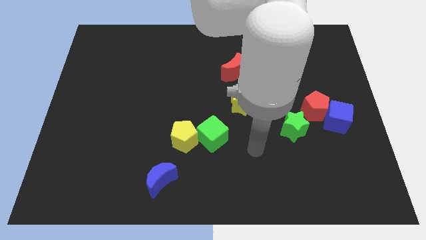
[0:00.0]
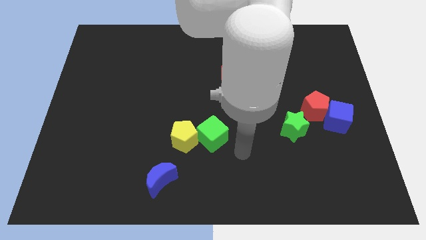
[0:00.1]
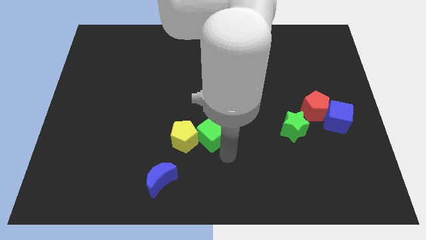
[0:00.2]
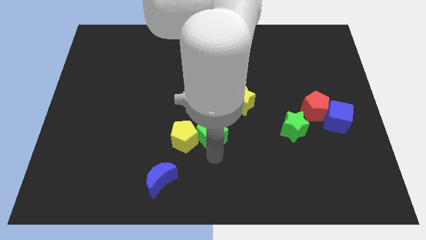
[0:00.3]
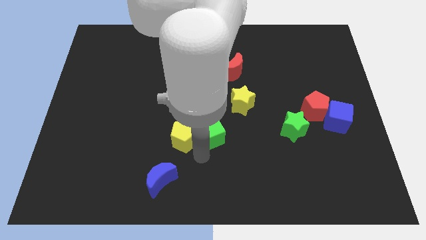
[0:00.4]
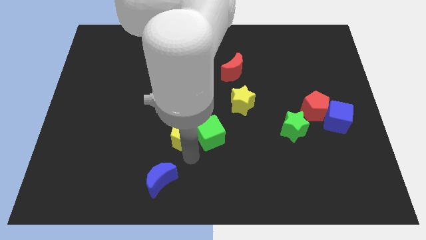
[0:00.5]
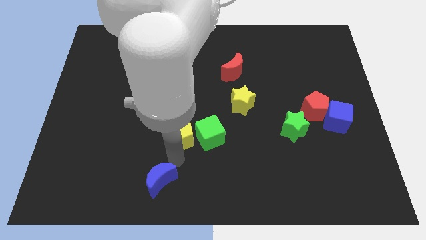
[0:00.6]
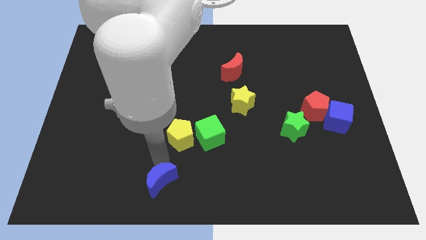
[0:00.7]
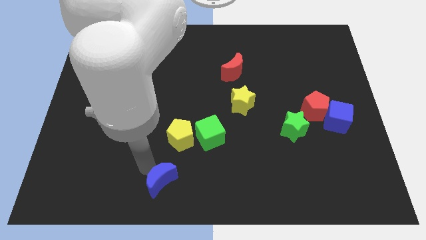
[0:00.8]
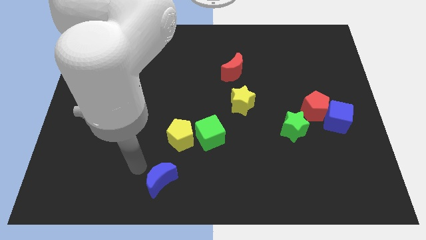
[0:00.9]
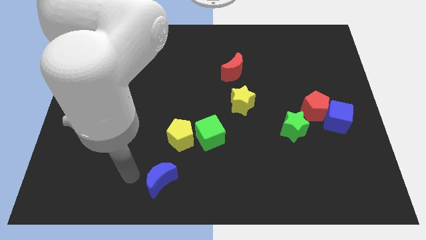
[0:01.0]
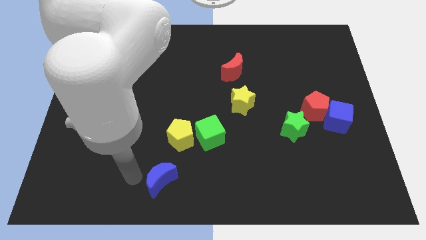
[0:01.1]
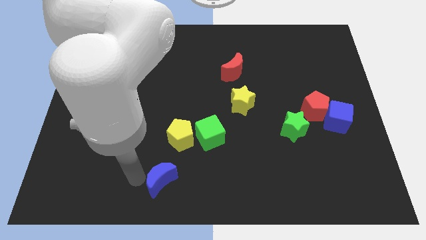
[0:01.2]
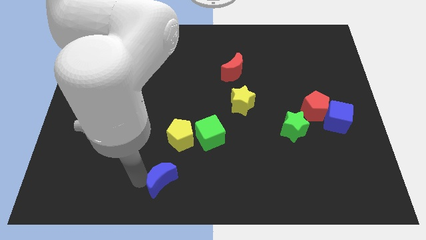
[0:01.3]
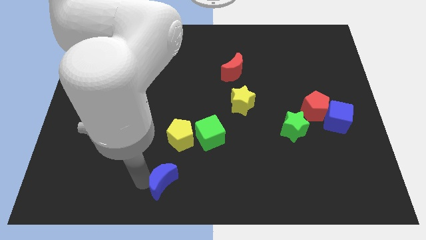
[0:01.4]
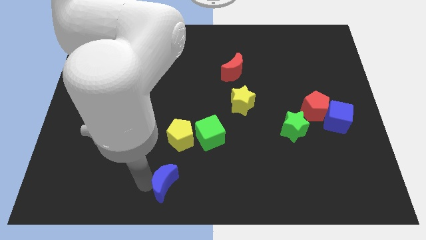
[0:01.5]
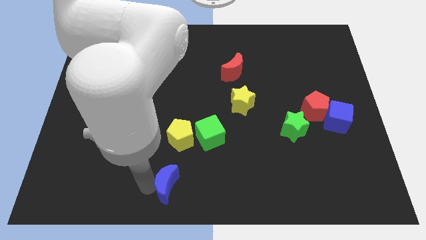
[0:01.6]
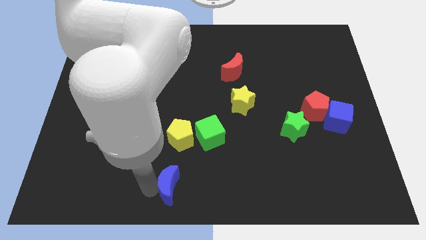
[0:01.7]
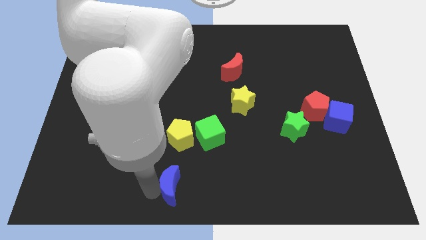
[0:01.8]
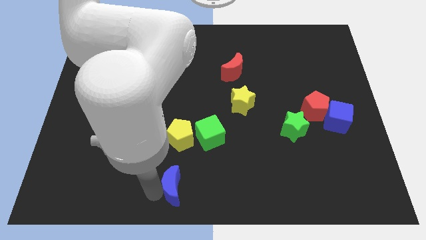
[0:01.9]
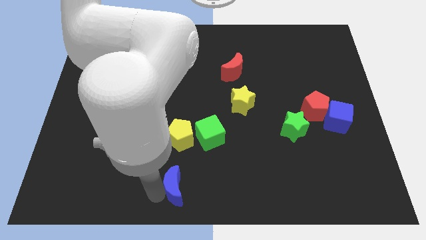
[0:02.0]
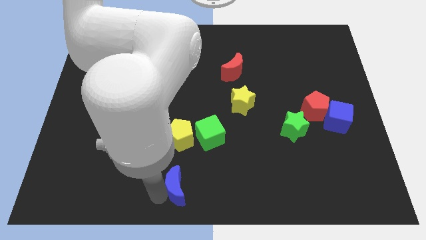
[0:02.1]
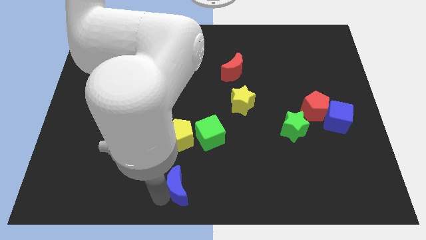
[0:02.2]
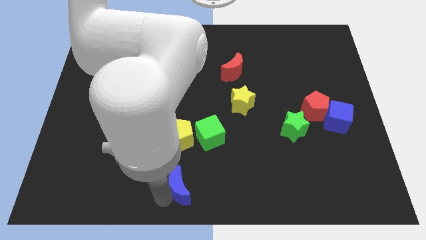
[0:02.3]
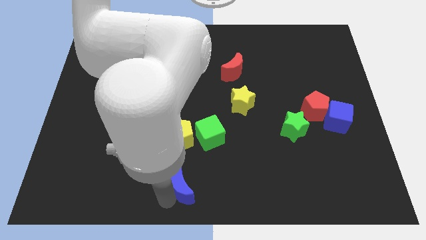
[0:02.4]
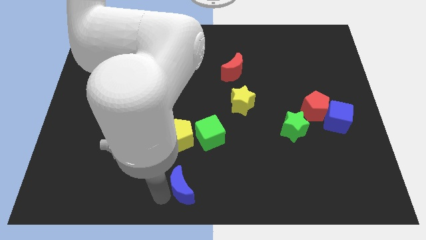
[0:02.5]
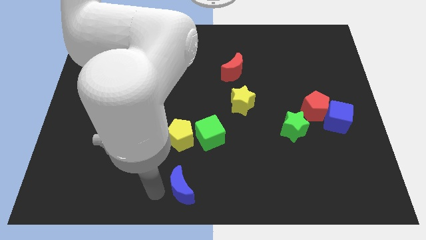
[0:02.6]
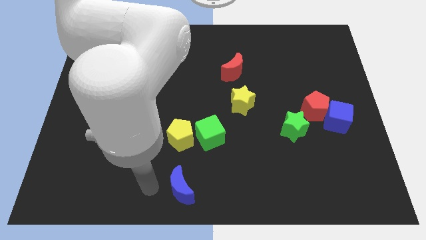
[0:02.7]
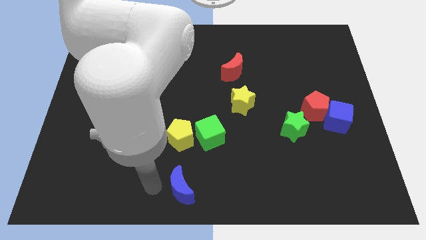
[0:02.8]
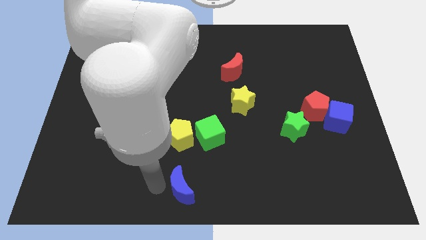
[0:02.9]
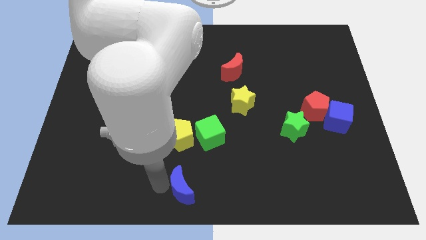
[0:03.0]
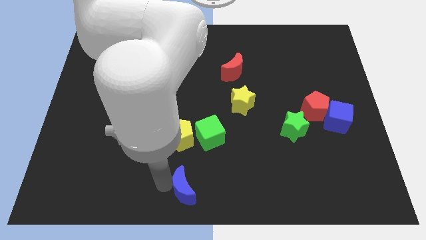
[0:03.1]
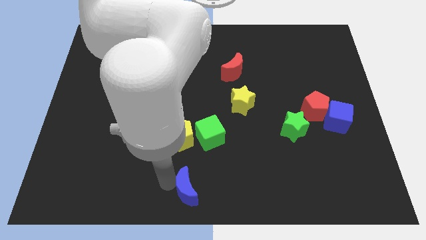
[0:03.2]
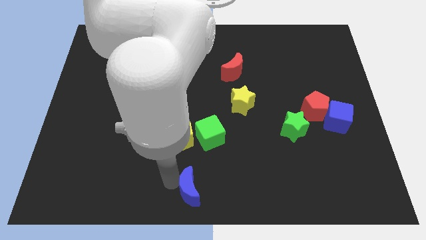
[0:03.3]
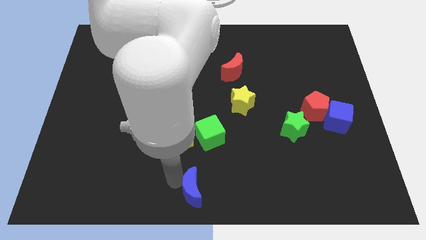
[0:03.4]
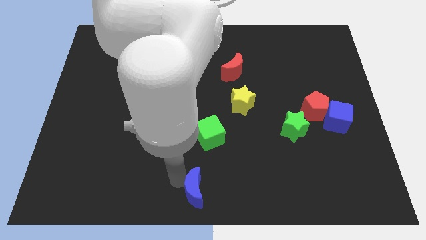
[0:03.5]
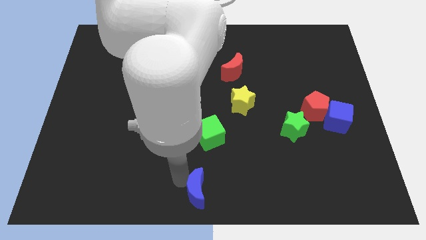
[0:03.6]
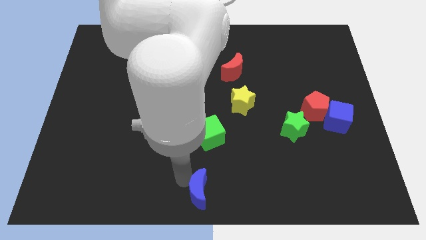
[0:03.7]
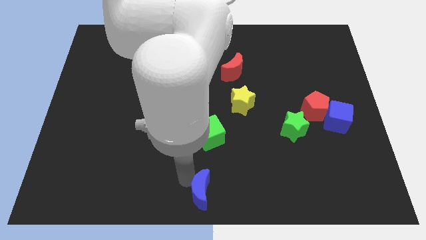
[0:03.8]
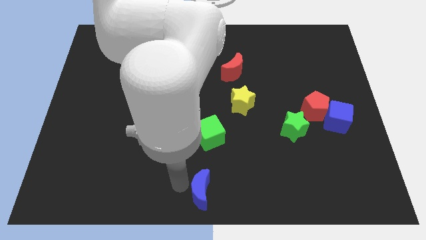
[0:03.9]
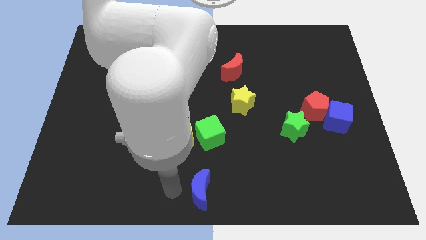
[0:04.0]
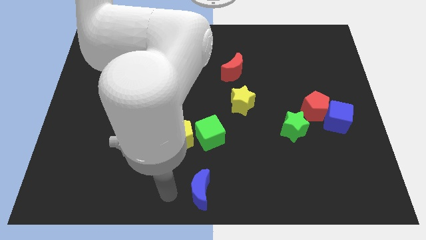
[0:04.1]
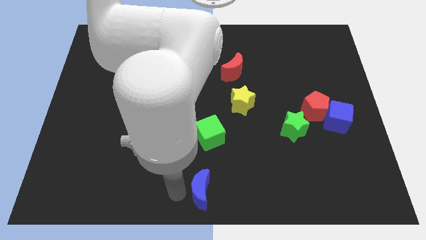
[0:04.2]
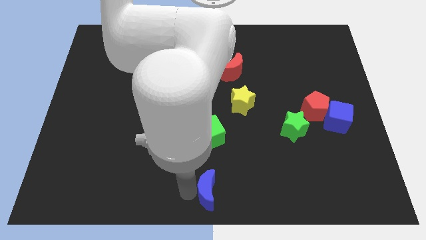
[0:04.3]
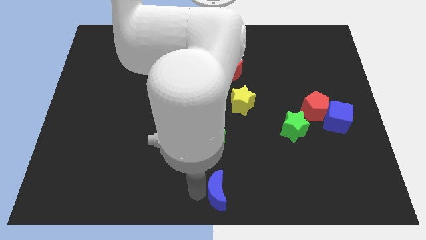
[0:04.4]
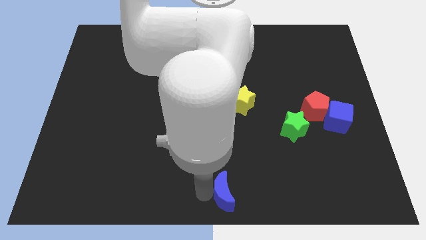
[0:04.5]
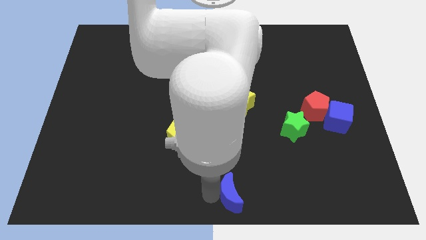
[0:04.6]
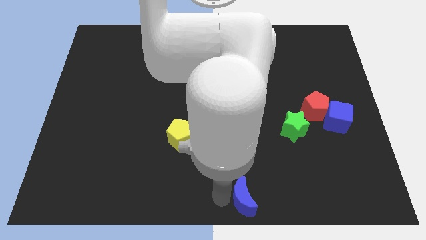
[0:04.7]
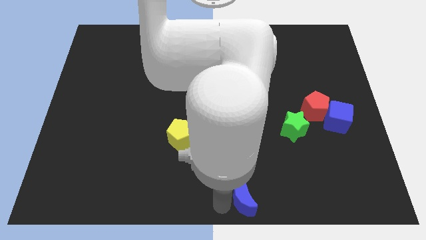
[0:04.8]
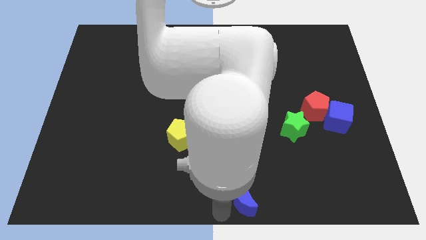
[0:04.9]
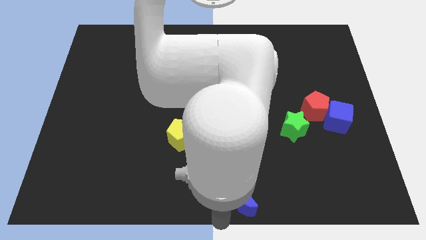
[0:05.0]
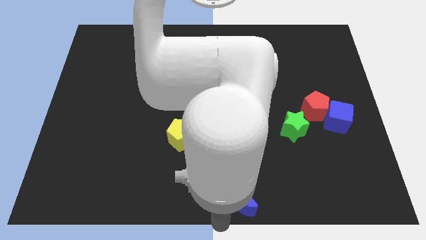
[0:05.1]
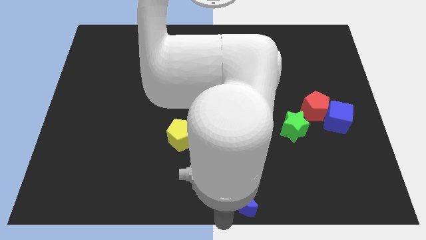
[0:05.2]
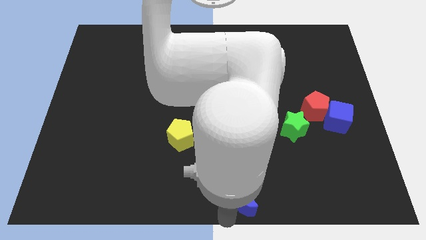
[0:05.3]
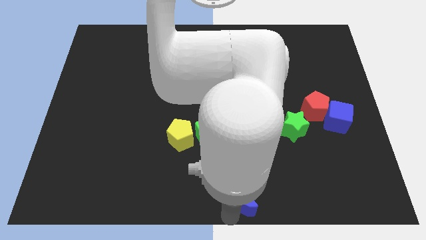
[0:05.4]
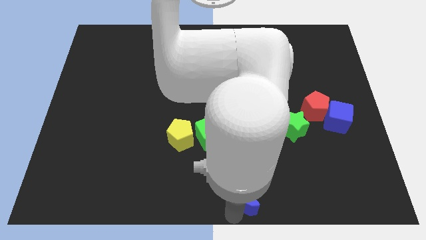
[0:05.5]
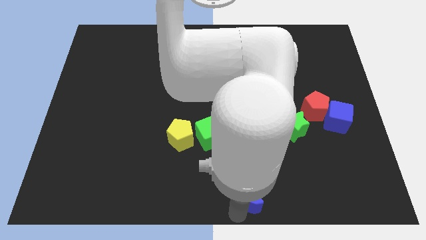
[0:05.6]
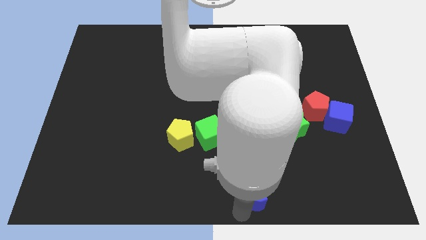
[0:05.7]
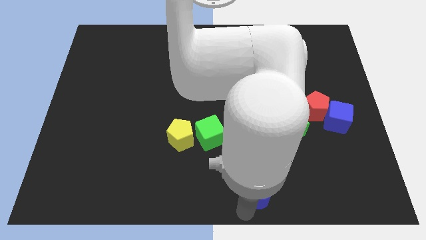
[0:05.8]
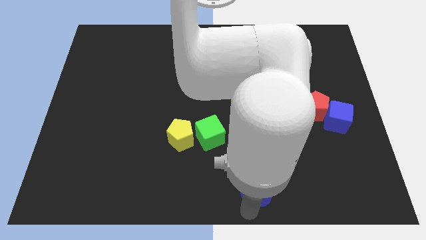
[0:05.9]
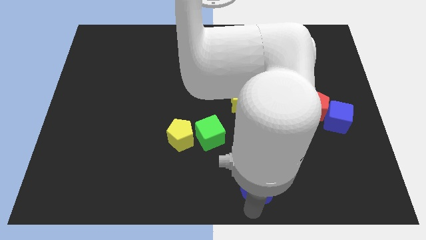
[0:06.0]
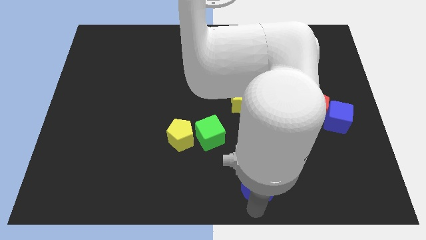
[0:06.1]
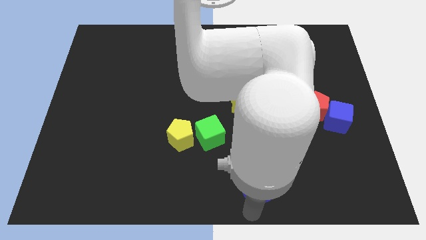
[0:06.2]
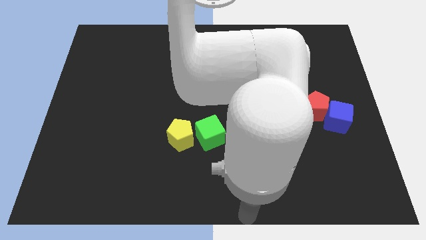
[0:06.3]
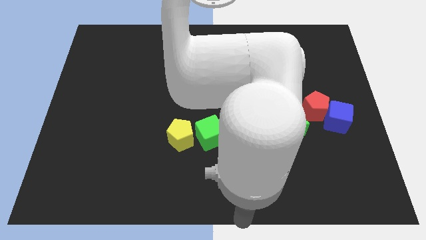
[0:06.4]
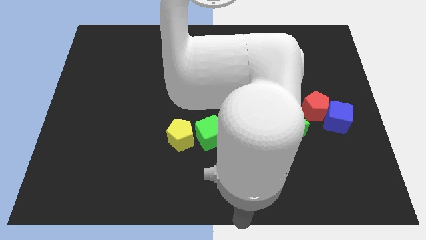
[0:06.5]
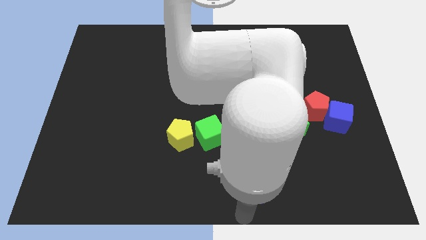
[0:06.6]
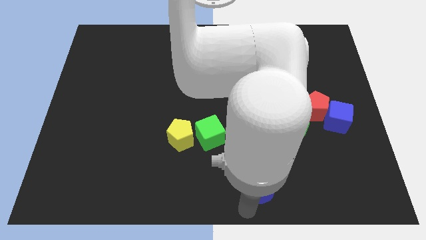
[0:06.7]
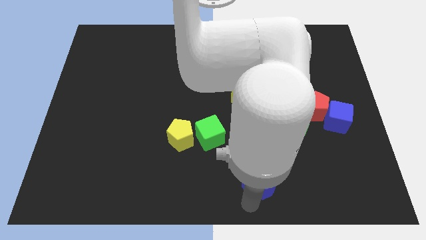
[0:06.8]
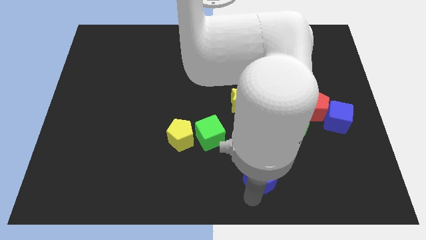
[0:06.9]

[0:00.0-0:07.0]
slide the blue moon right

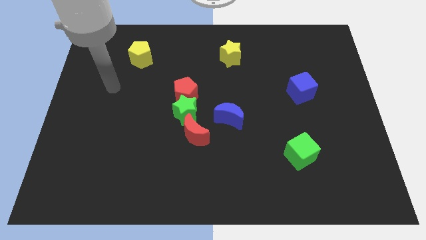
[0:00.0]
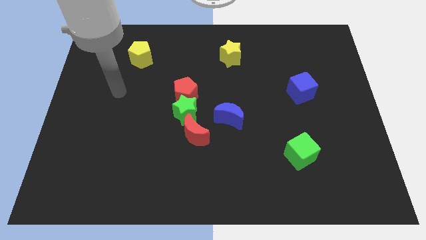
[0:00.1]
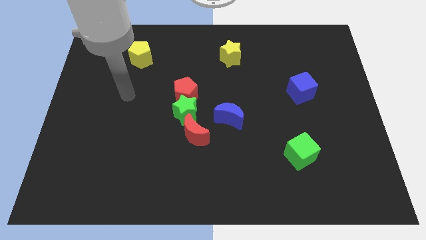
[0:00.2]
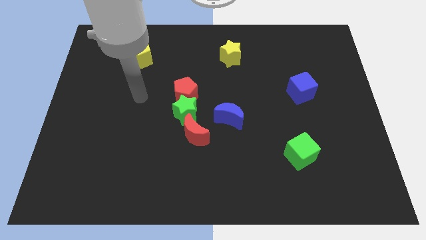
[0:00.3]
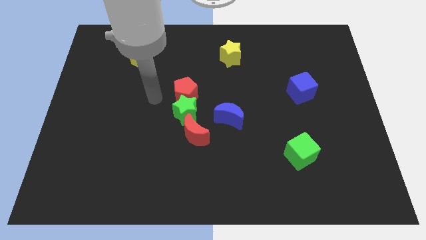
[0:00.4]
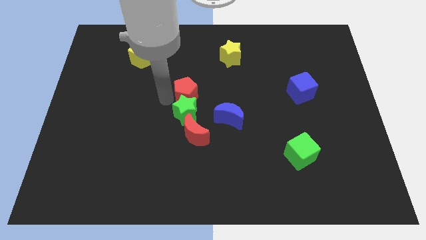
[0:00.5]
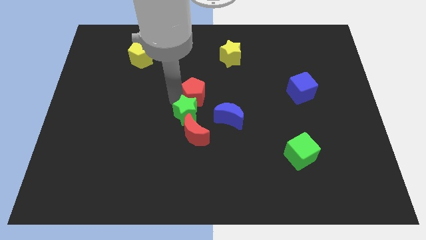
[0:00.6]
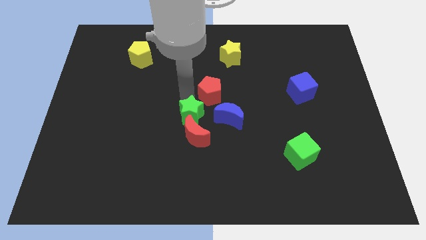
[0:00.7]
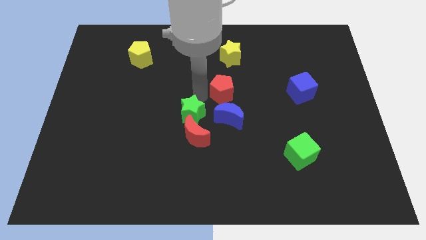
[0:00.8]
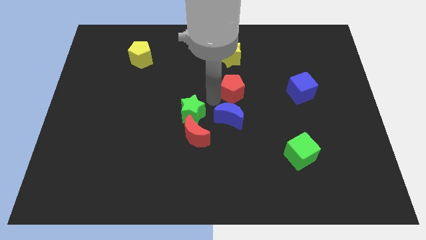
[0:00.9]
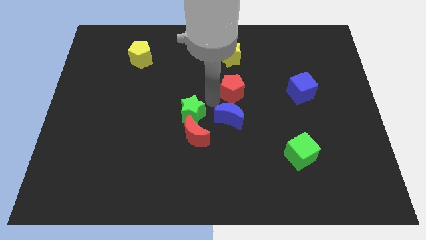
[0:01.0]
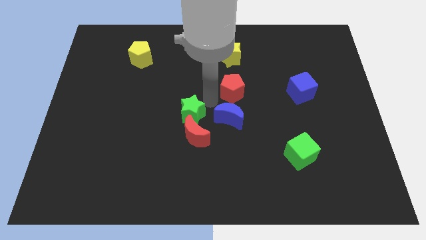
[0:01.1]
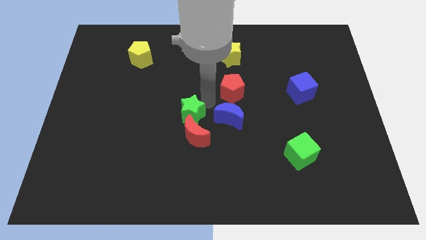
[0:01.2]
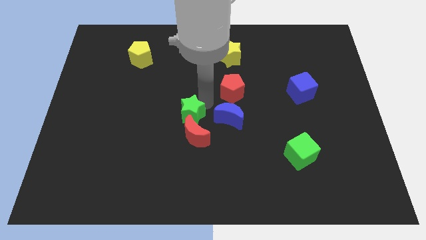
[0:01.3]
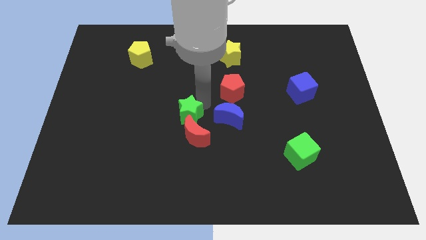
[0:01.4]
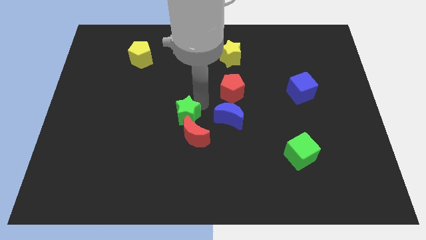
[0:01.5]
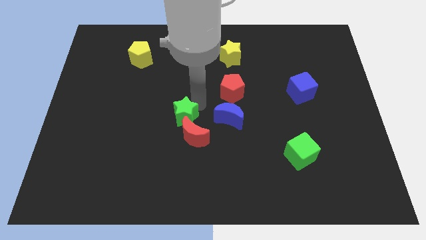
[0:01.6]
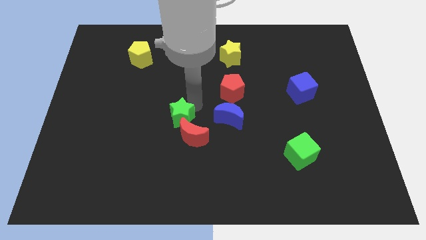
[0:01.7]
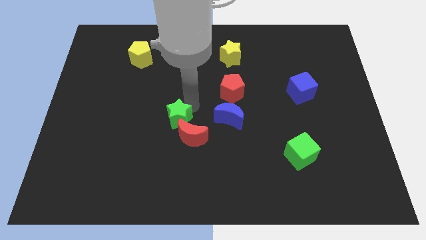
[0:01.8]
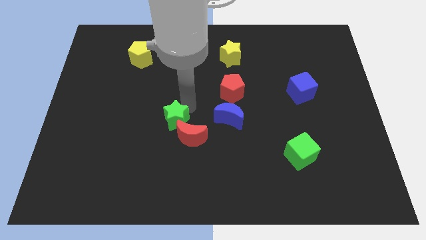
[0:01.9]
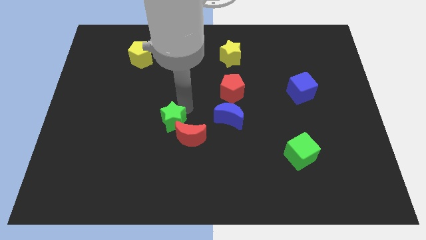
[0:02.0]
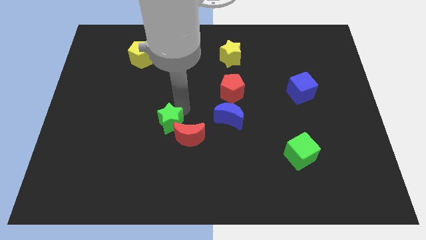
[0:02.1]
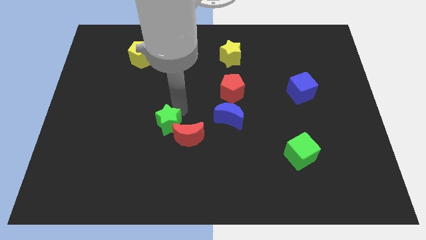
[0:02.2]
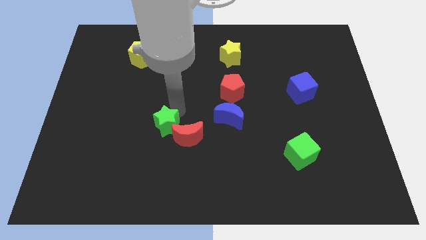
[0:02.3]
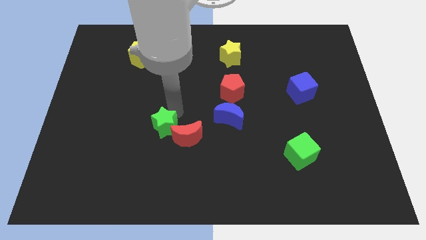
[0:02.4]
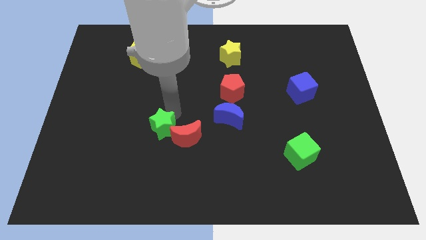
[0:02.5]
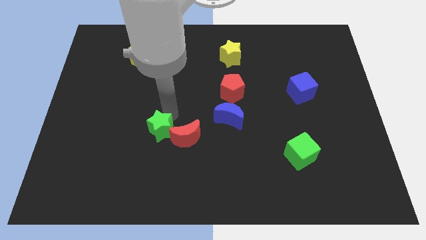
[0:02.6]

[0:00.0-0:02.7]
push the green star a little downwards and then left
